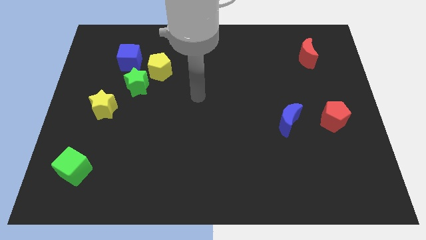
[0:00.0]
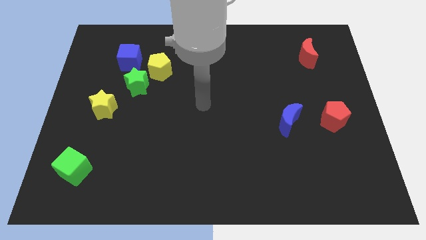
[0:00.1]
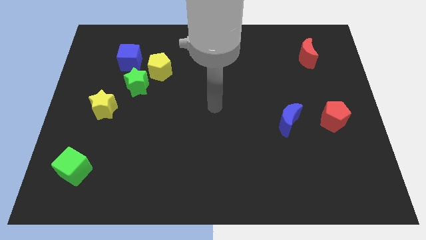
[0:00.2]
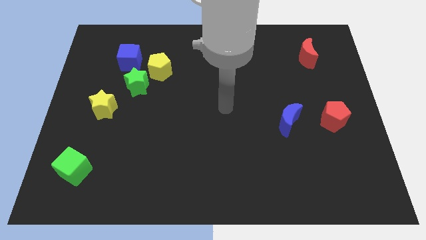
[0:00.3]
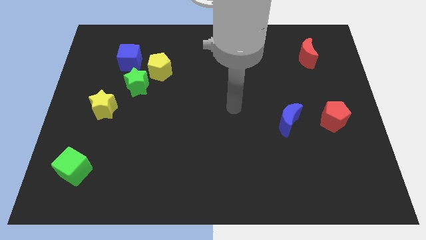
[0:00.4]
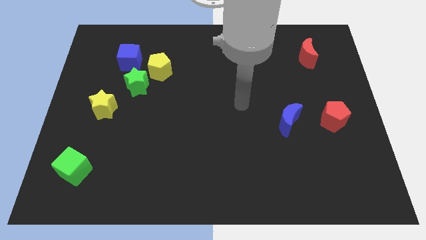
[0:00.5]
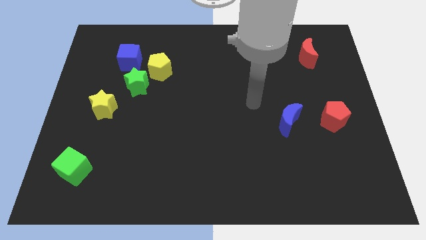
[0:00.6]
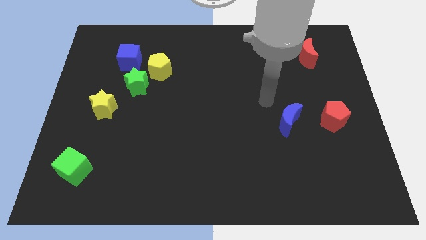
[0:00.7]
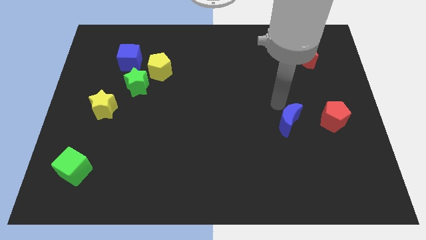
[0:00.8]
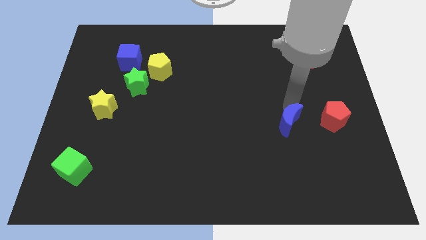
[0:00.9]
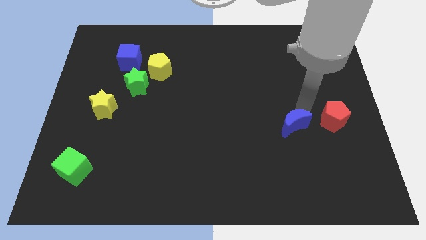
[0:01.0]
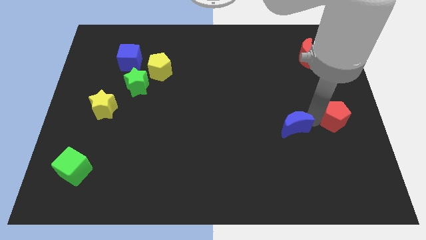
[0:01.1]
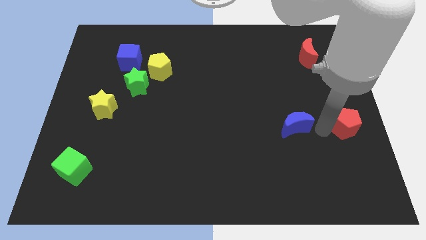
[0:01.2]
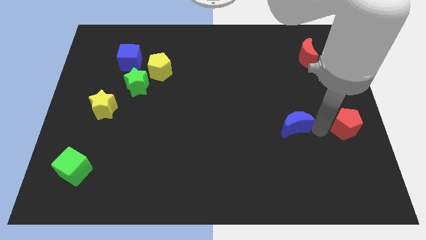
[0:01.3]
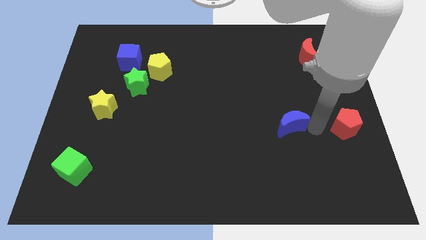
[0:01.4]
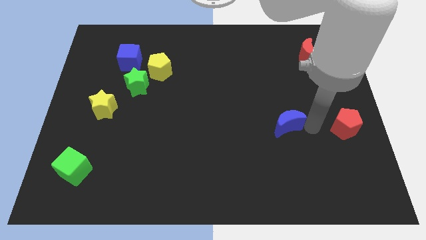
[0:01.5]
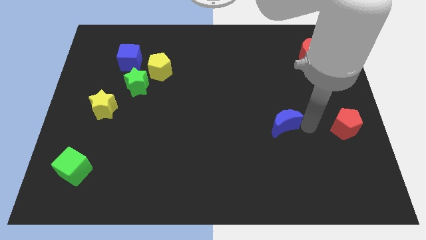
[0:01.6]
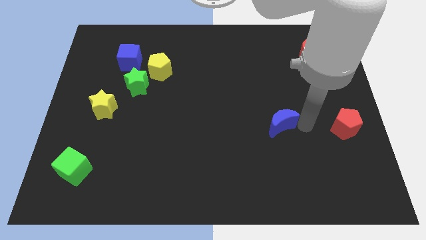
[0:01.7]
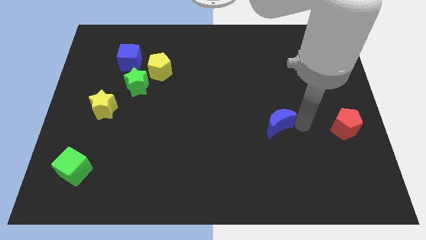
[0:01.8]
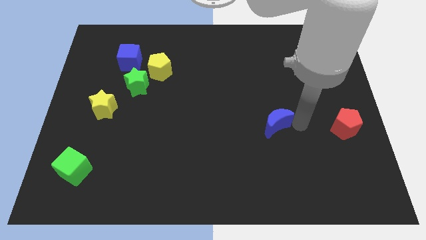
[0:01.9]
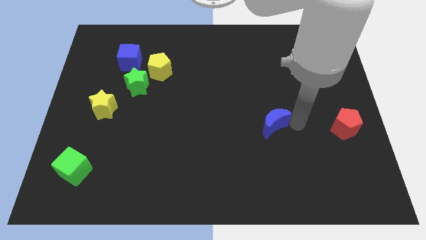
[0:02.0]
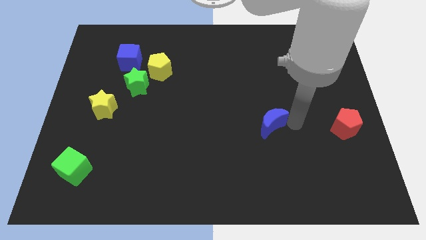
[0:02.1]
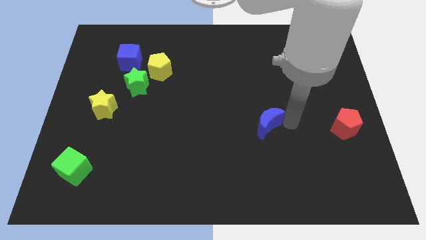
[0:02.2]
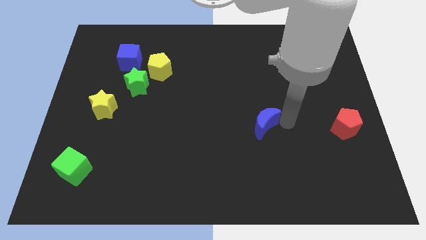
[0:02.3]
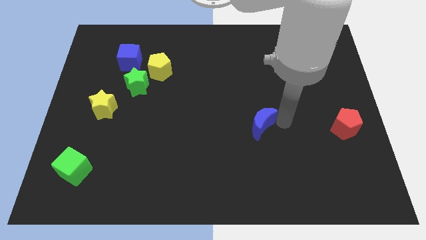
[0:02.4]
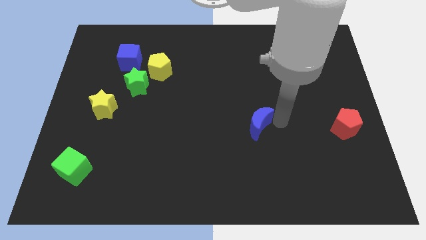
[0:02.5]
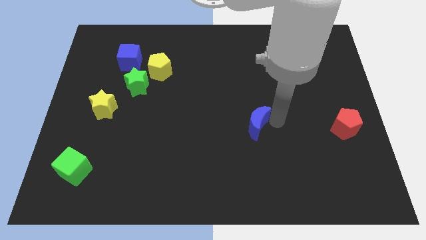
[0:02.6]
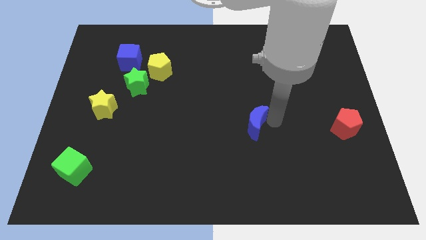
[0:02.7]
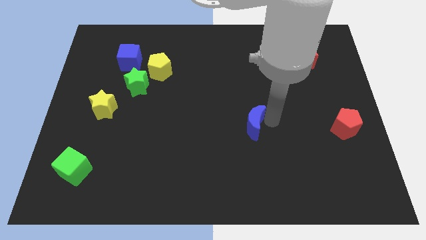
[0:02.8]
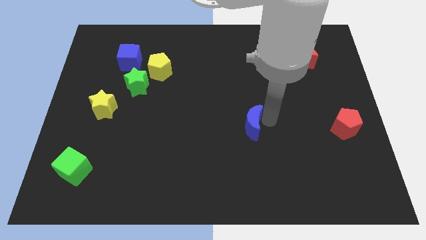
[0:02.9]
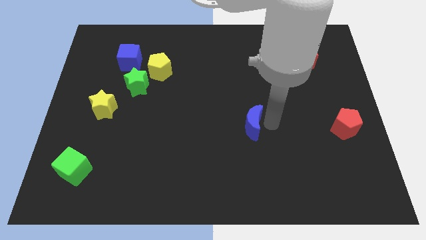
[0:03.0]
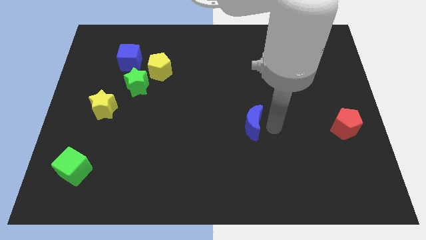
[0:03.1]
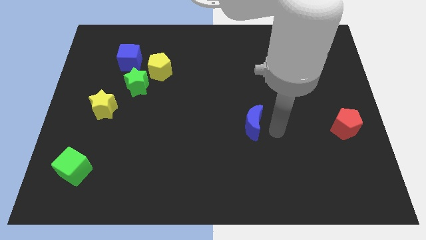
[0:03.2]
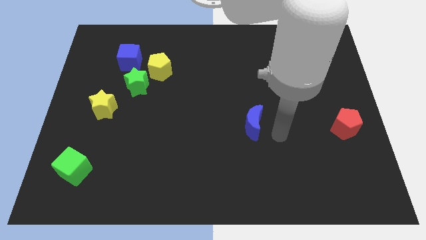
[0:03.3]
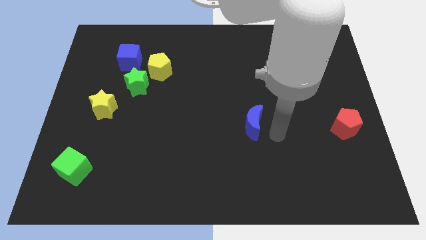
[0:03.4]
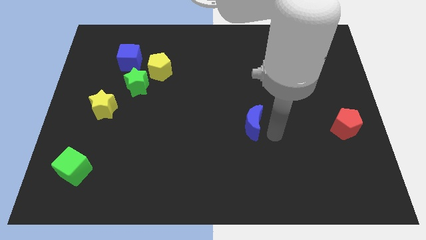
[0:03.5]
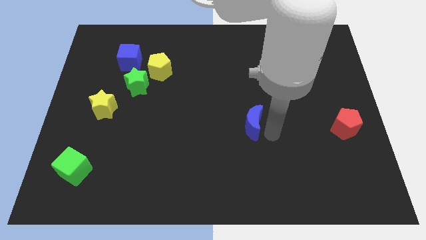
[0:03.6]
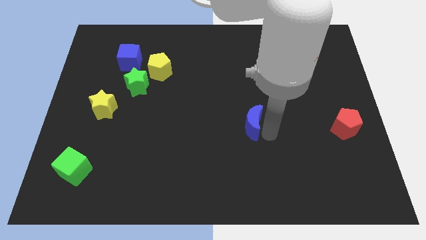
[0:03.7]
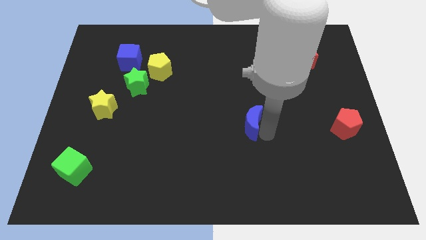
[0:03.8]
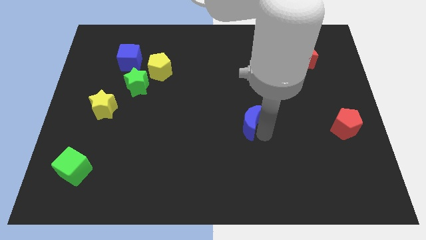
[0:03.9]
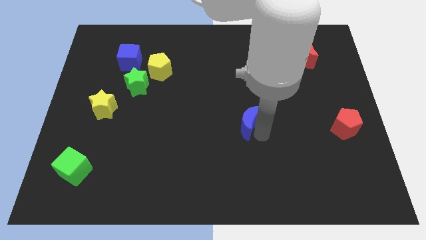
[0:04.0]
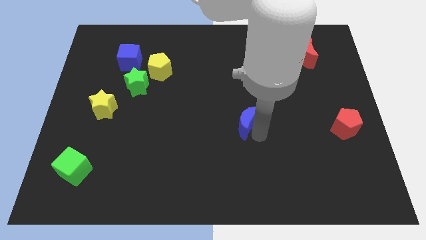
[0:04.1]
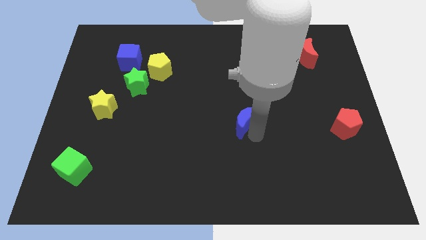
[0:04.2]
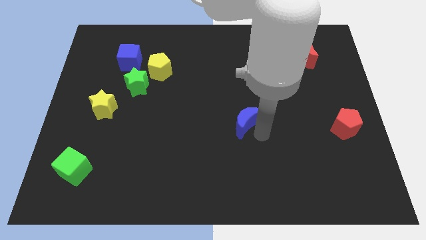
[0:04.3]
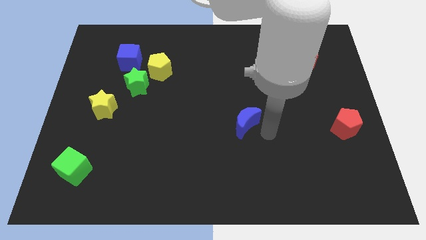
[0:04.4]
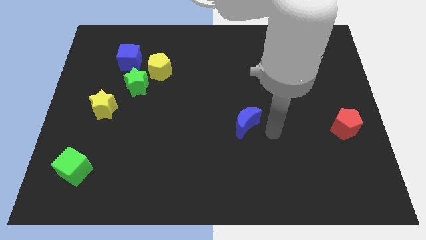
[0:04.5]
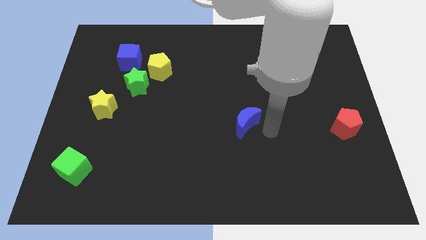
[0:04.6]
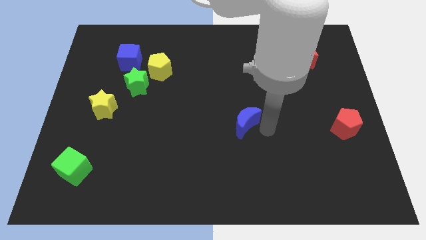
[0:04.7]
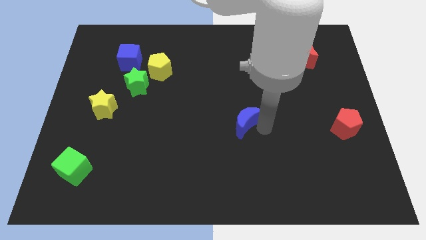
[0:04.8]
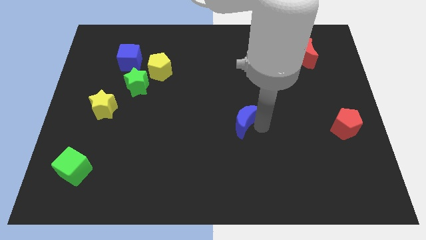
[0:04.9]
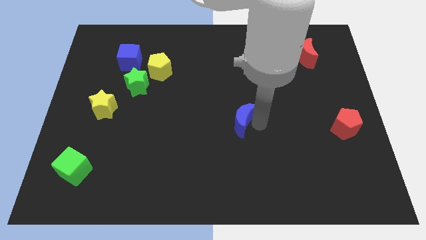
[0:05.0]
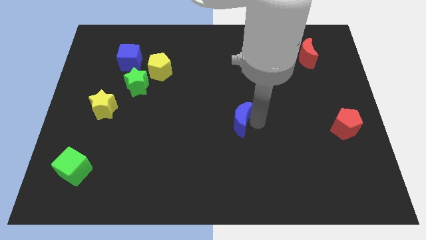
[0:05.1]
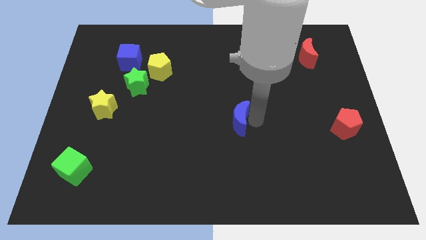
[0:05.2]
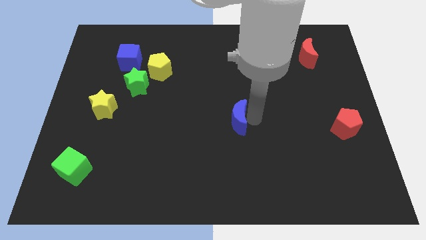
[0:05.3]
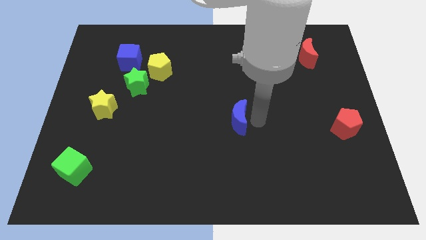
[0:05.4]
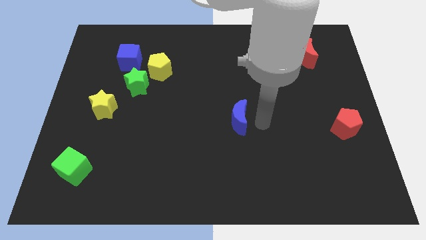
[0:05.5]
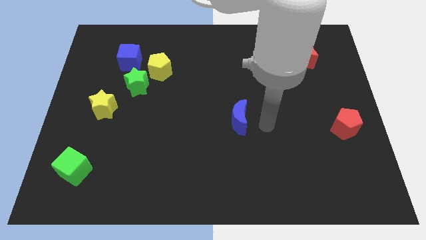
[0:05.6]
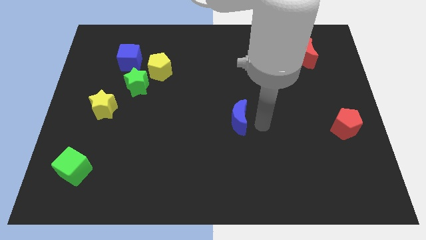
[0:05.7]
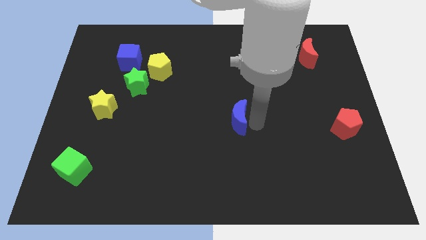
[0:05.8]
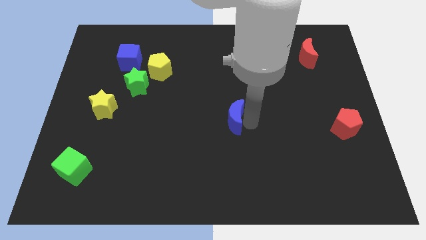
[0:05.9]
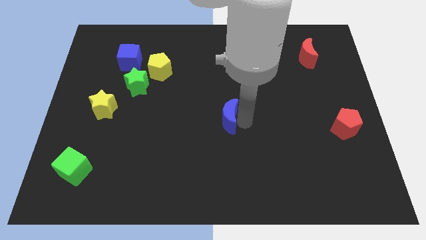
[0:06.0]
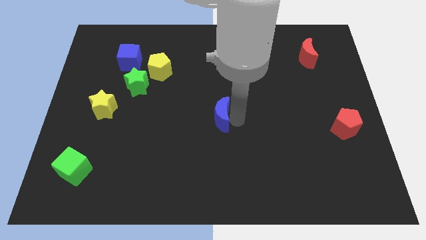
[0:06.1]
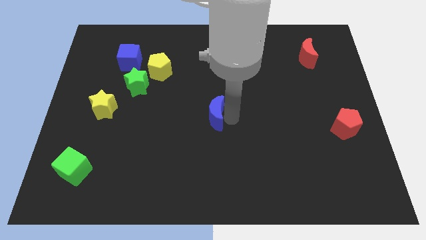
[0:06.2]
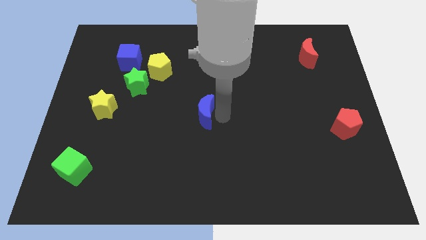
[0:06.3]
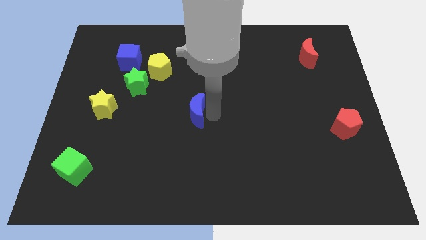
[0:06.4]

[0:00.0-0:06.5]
move the blue moon left

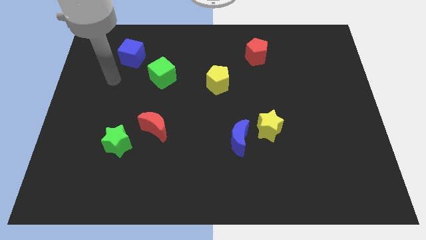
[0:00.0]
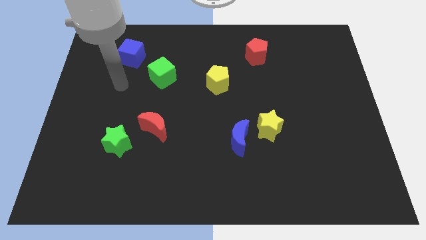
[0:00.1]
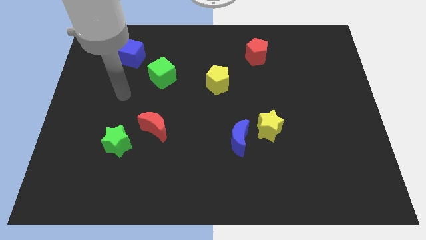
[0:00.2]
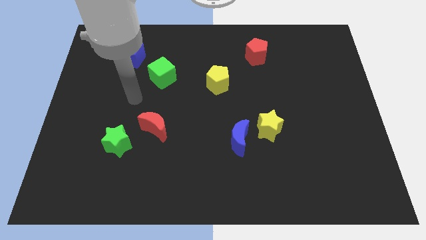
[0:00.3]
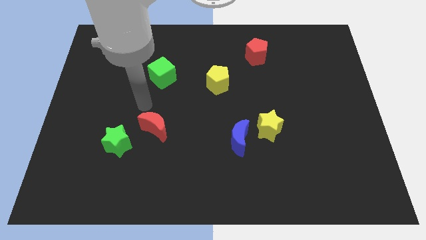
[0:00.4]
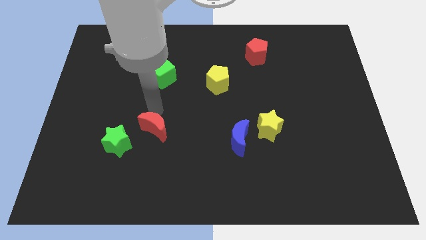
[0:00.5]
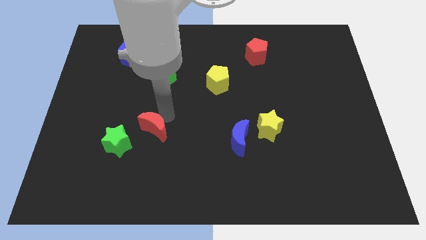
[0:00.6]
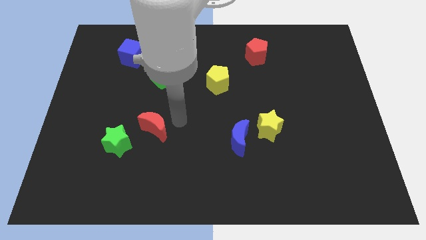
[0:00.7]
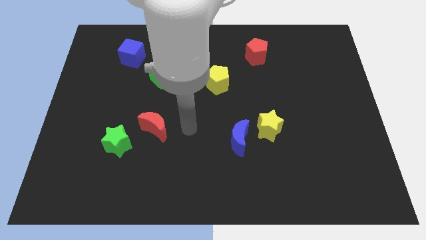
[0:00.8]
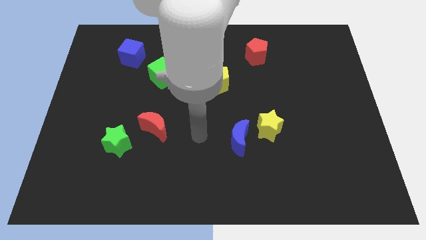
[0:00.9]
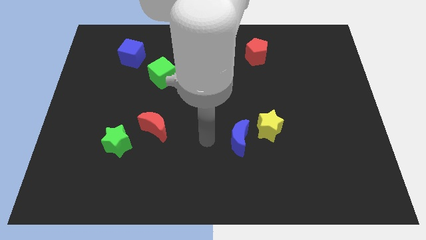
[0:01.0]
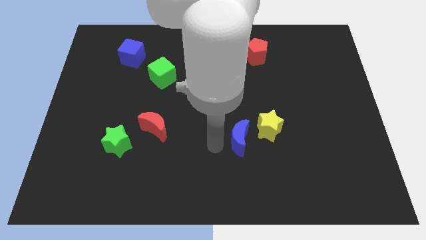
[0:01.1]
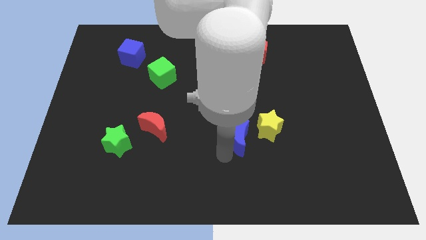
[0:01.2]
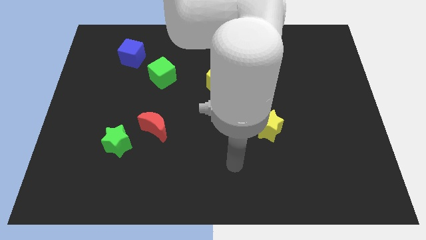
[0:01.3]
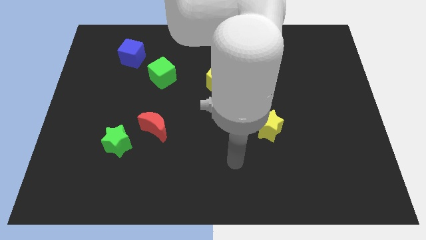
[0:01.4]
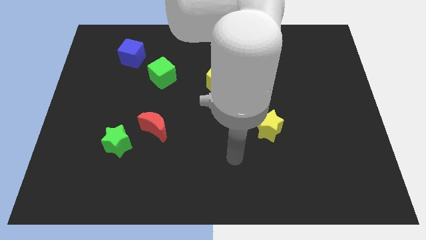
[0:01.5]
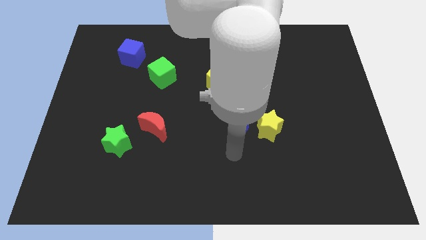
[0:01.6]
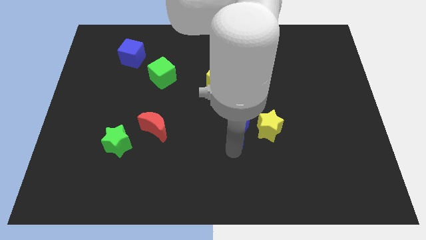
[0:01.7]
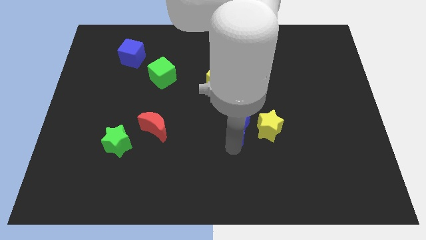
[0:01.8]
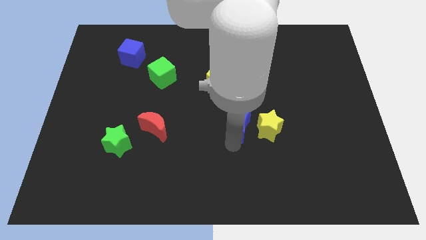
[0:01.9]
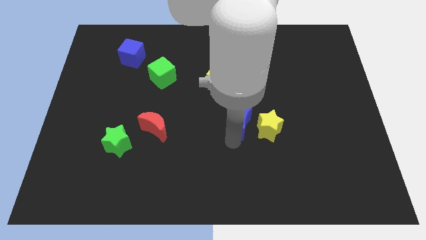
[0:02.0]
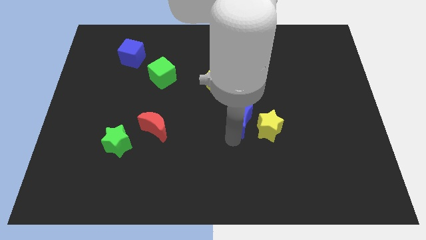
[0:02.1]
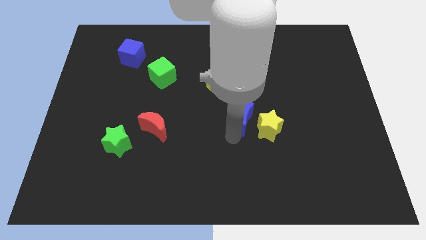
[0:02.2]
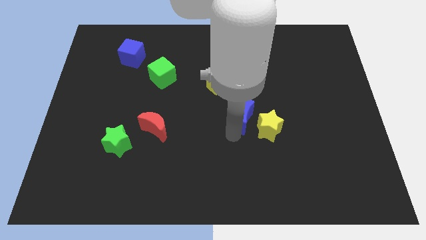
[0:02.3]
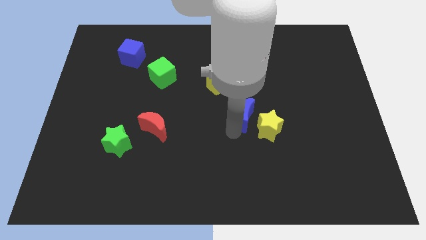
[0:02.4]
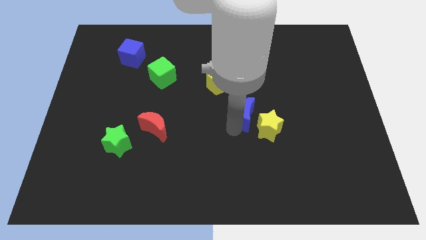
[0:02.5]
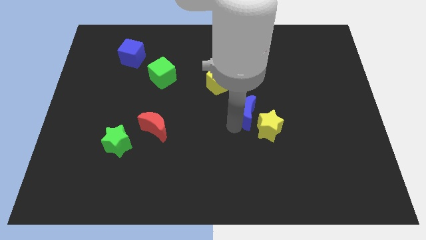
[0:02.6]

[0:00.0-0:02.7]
slightly push the blue moon upwards
